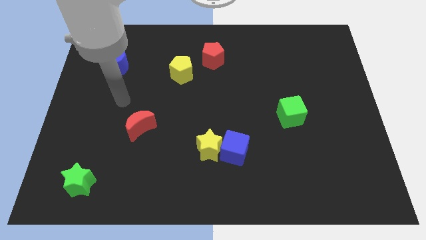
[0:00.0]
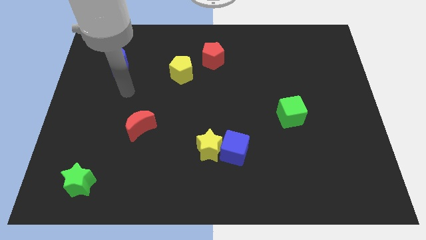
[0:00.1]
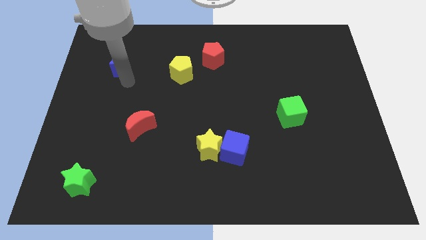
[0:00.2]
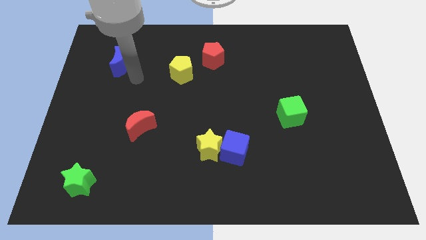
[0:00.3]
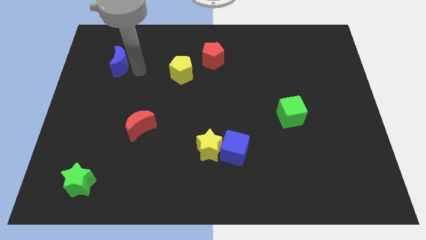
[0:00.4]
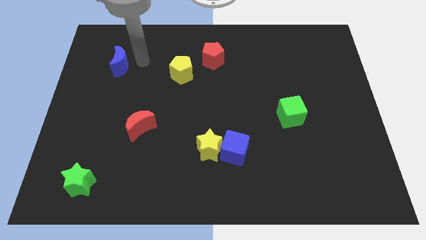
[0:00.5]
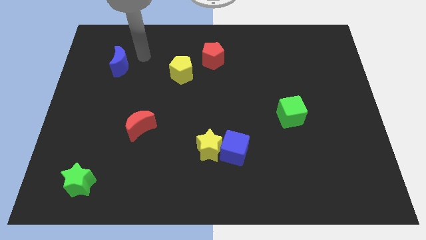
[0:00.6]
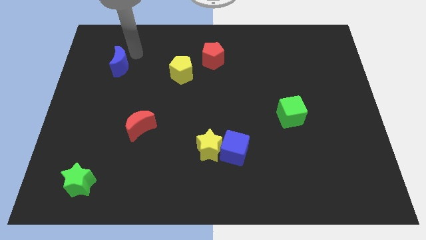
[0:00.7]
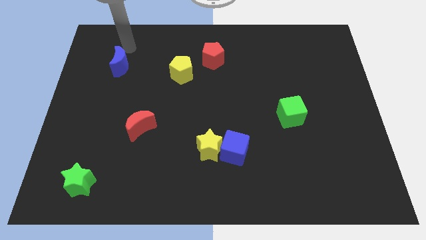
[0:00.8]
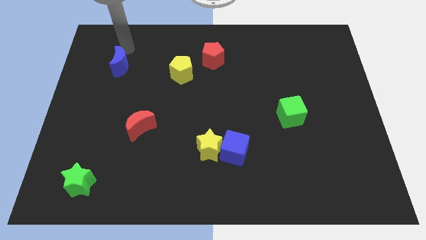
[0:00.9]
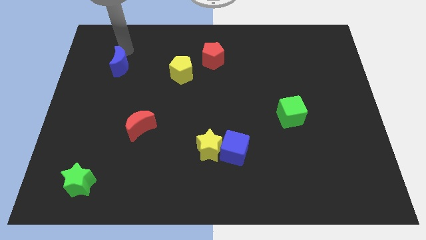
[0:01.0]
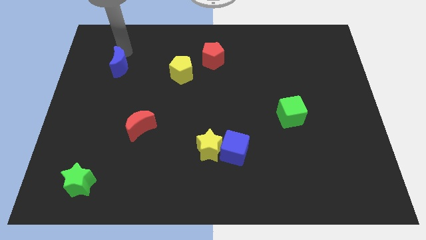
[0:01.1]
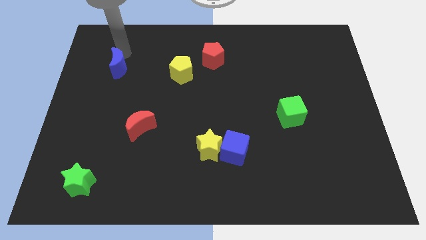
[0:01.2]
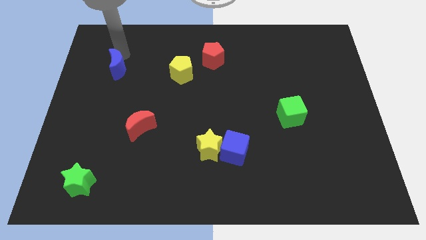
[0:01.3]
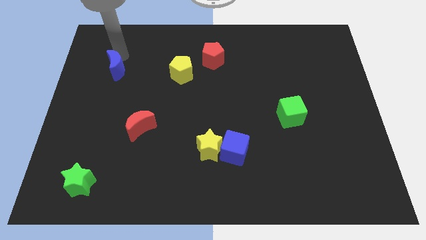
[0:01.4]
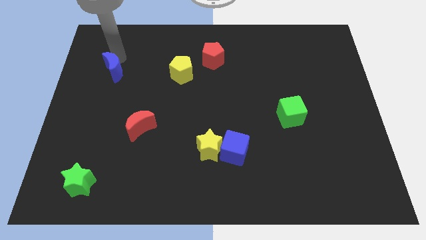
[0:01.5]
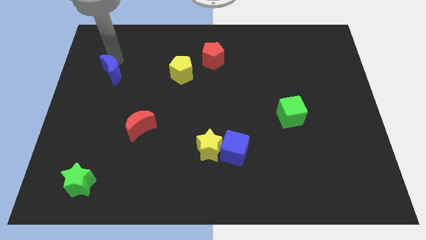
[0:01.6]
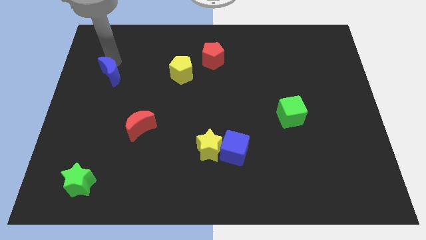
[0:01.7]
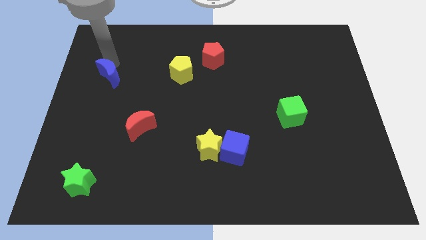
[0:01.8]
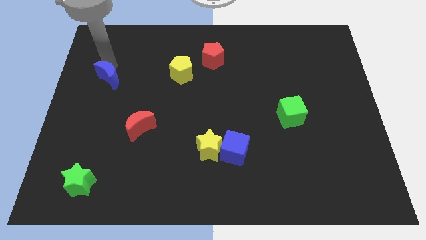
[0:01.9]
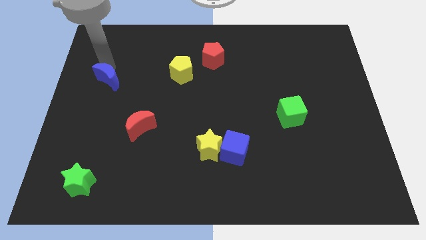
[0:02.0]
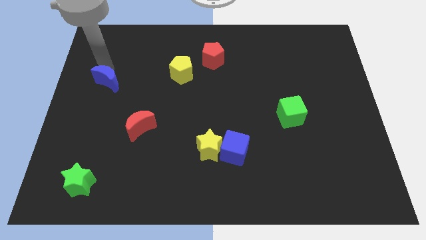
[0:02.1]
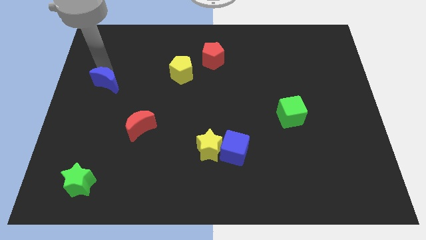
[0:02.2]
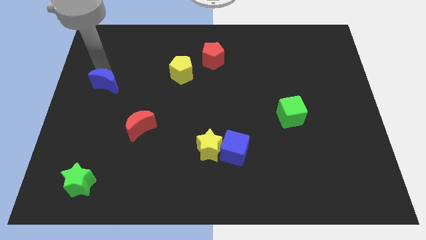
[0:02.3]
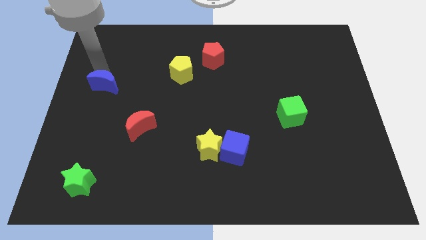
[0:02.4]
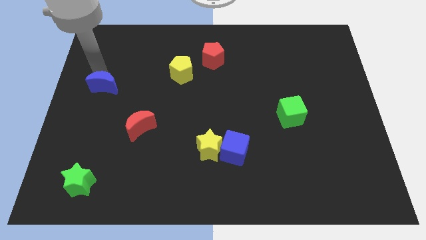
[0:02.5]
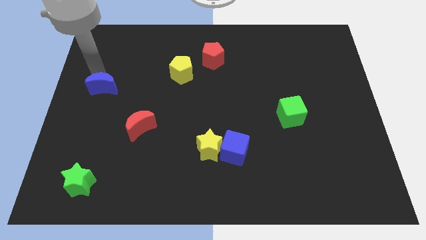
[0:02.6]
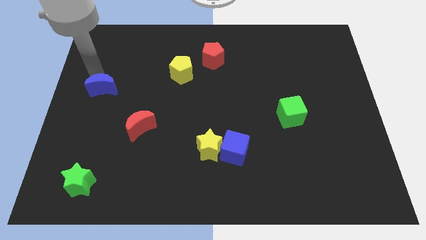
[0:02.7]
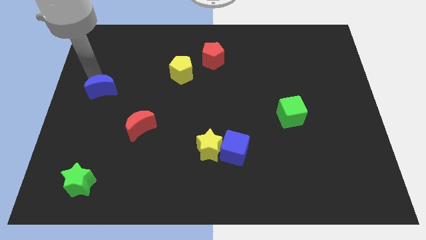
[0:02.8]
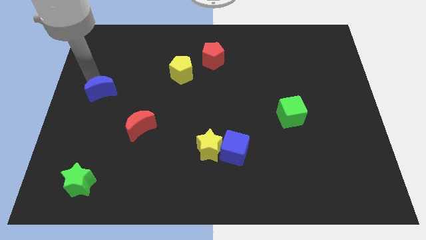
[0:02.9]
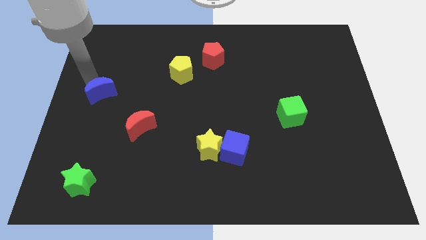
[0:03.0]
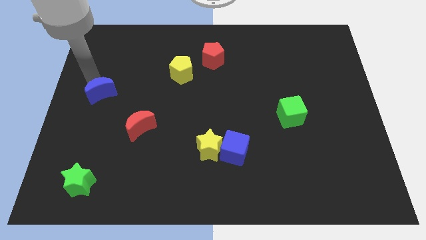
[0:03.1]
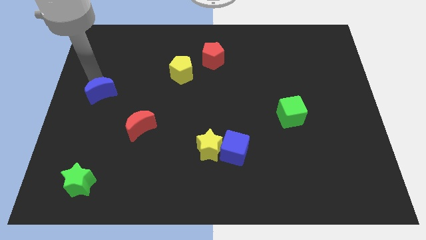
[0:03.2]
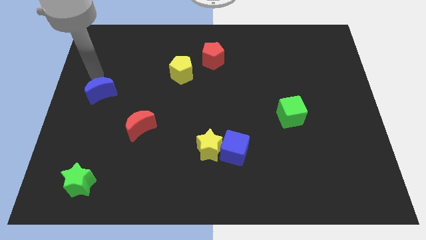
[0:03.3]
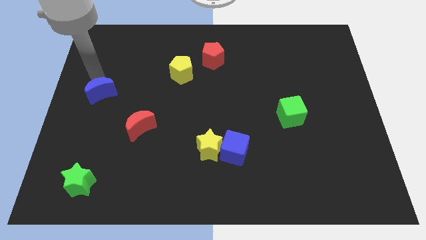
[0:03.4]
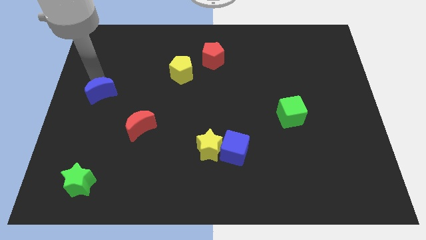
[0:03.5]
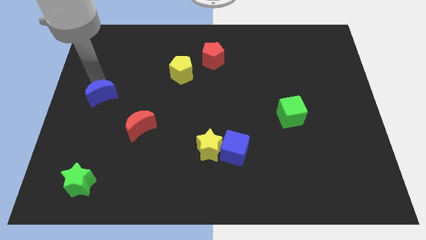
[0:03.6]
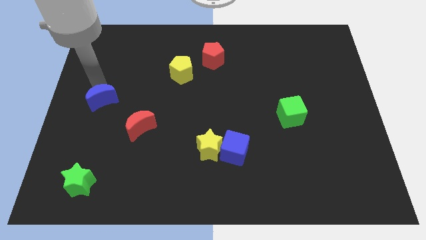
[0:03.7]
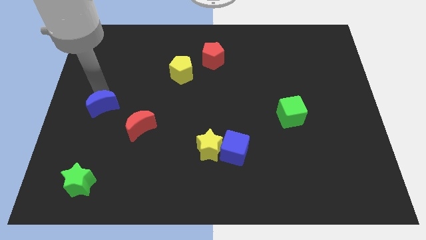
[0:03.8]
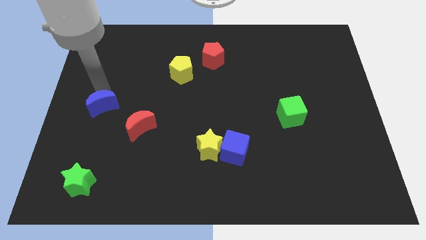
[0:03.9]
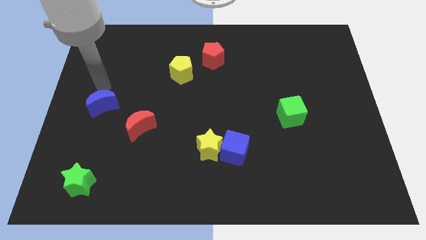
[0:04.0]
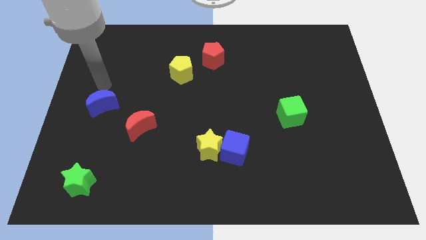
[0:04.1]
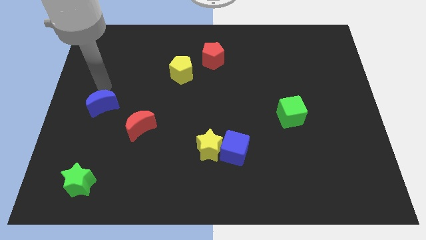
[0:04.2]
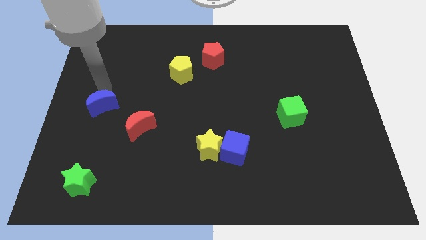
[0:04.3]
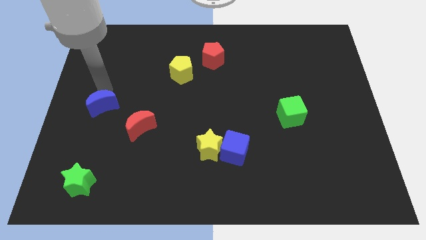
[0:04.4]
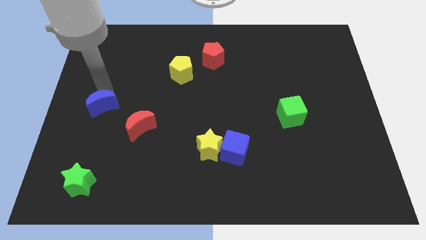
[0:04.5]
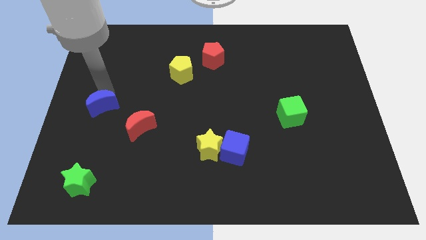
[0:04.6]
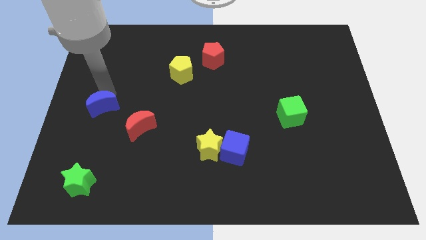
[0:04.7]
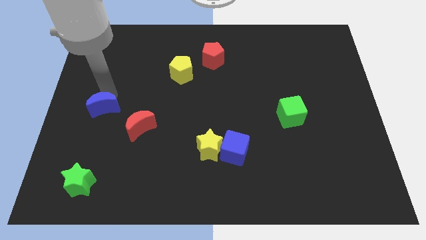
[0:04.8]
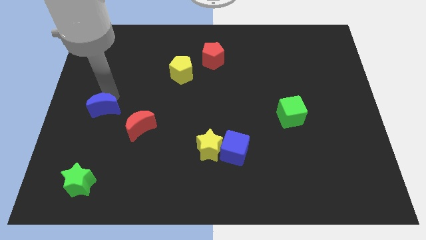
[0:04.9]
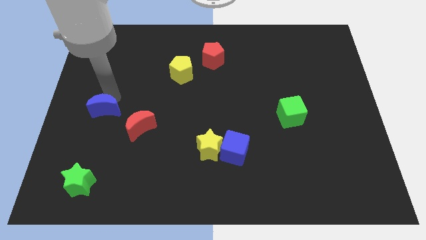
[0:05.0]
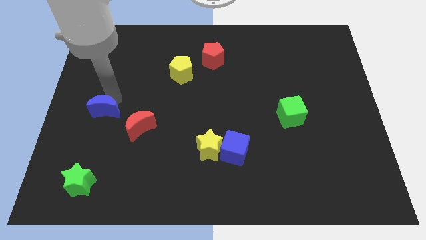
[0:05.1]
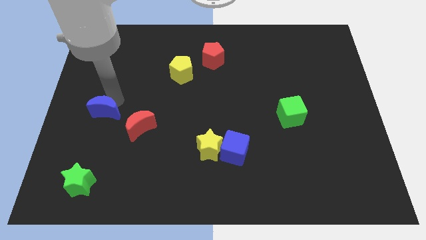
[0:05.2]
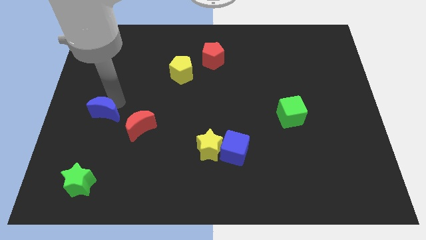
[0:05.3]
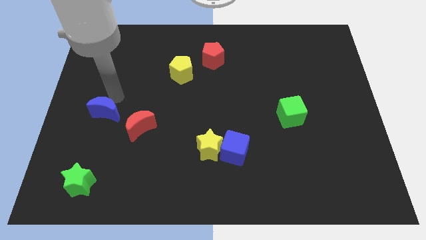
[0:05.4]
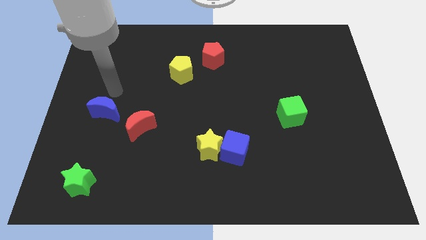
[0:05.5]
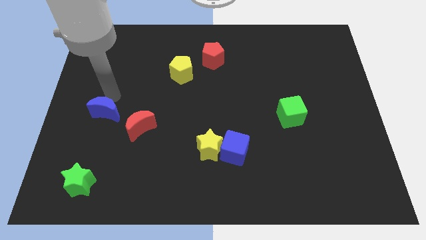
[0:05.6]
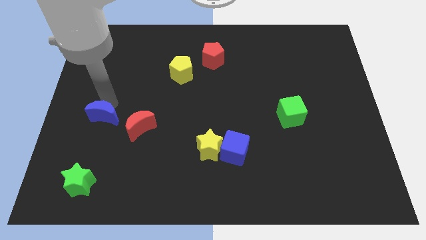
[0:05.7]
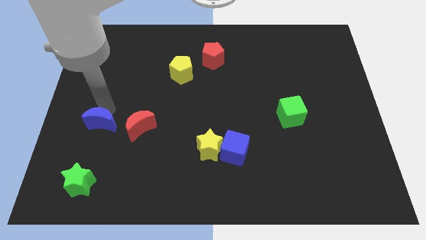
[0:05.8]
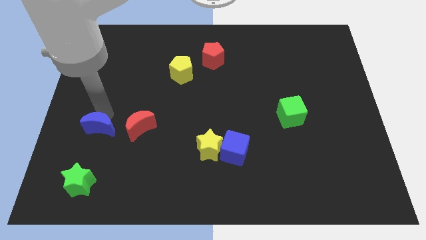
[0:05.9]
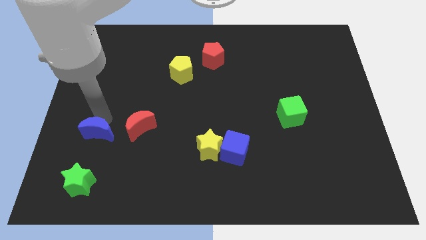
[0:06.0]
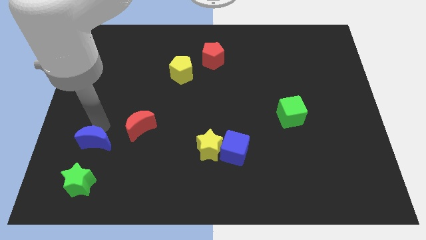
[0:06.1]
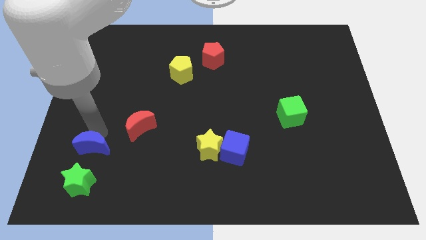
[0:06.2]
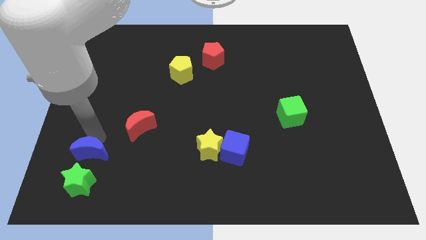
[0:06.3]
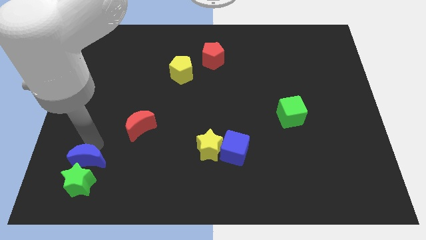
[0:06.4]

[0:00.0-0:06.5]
put the blue moon close to the green star

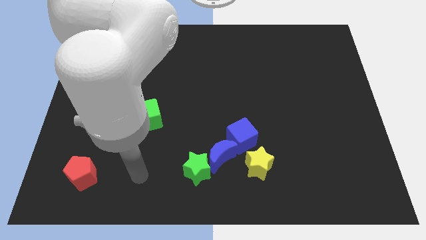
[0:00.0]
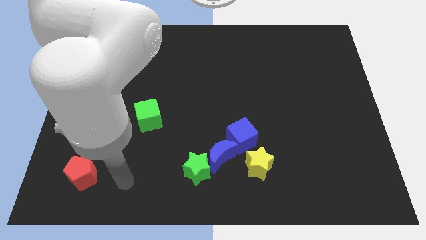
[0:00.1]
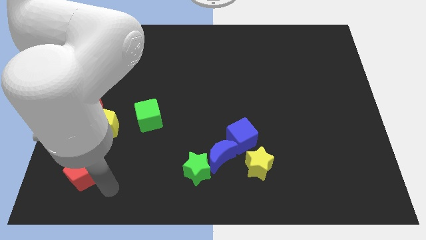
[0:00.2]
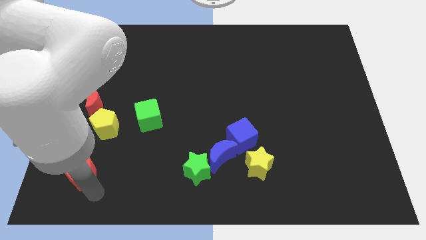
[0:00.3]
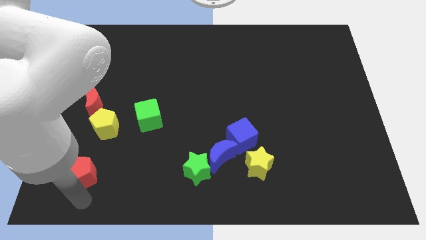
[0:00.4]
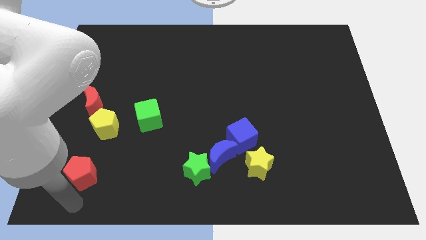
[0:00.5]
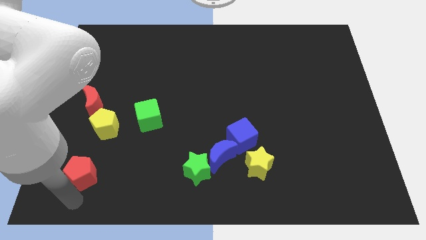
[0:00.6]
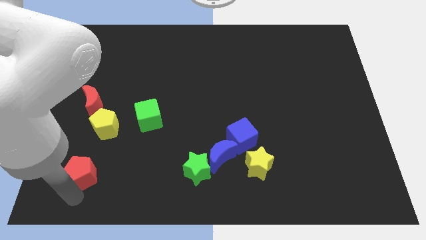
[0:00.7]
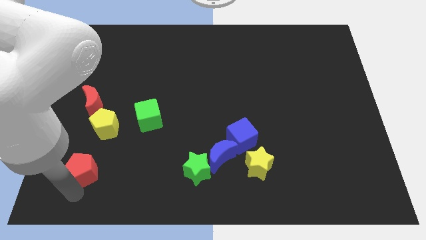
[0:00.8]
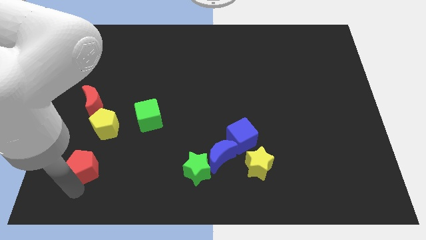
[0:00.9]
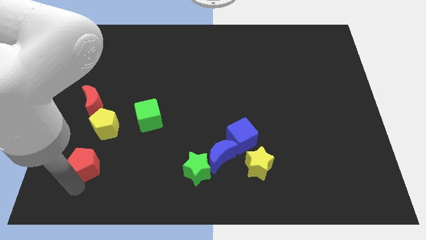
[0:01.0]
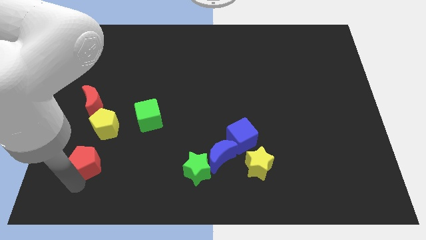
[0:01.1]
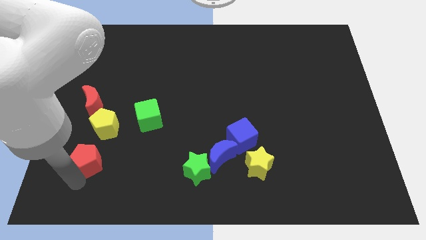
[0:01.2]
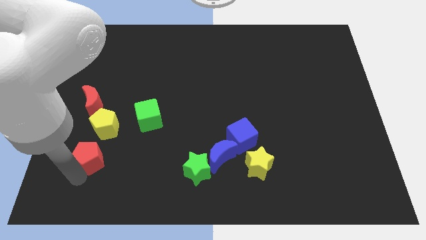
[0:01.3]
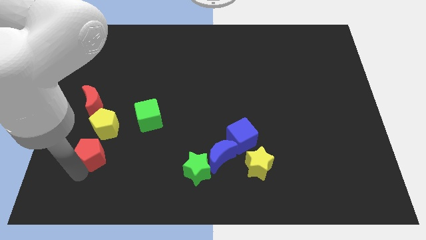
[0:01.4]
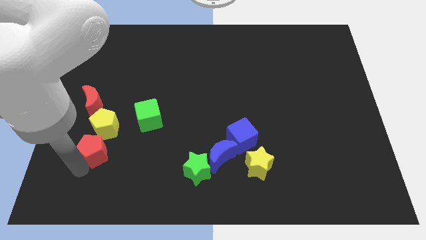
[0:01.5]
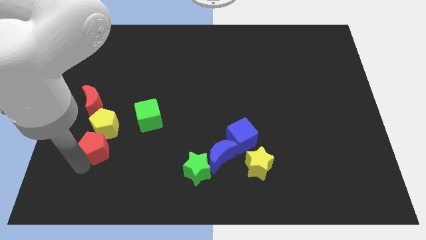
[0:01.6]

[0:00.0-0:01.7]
move the red pentagon to the yellow pentagon
